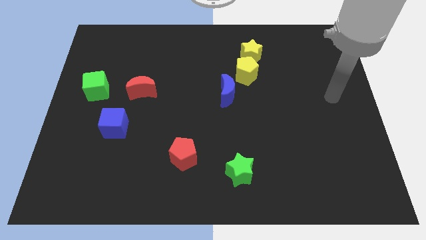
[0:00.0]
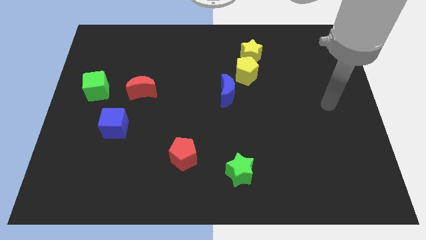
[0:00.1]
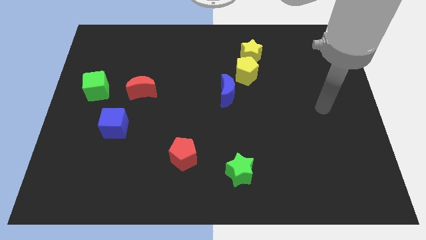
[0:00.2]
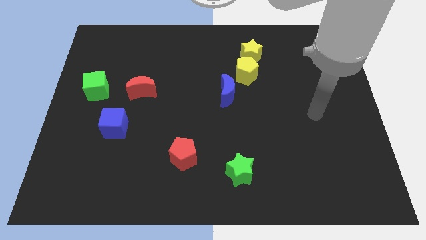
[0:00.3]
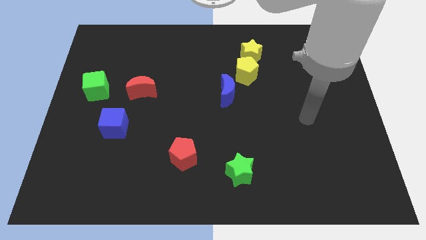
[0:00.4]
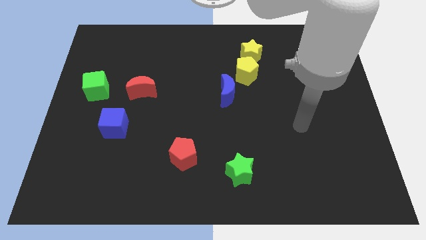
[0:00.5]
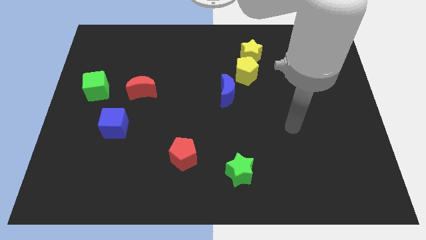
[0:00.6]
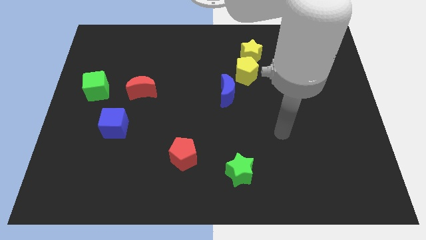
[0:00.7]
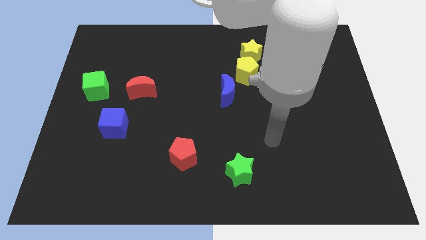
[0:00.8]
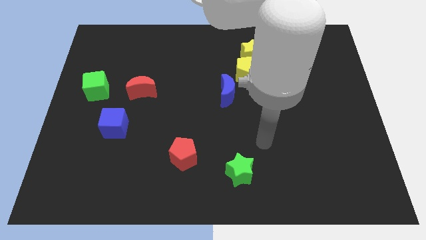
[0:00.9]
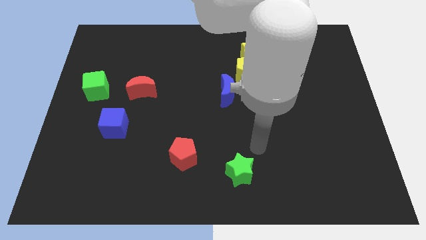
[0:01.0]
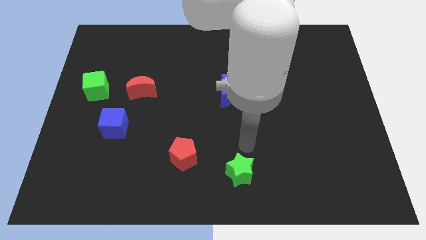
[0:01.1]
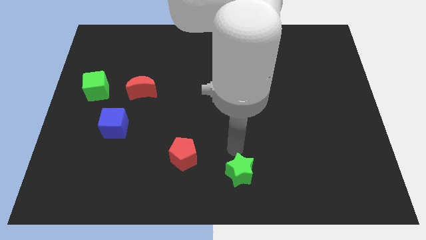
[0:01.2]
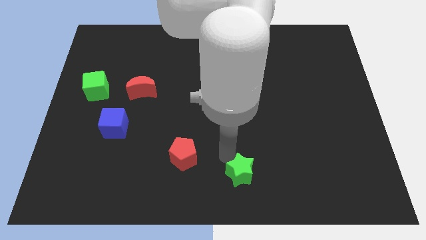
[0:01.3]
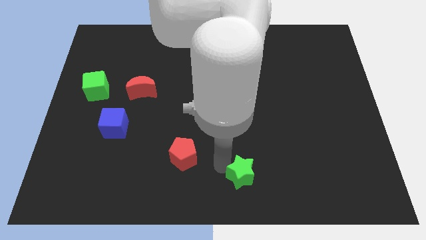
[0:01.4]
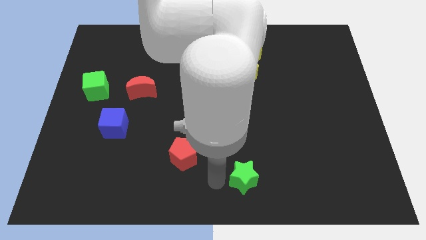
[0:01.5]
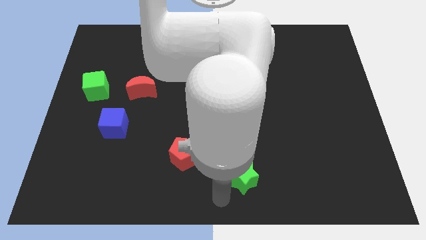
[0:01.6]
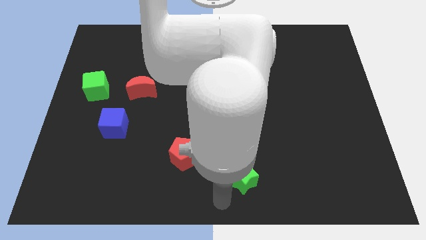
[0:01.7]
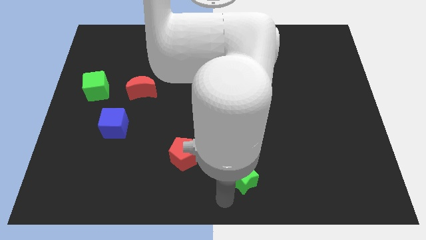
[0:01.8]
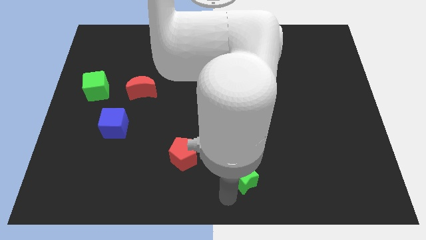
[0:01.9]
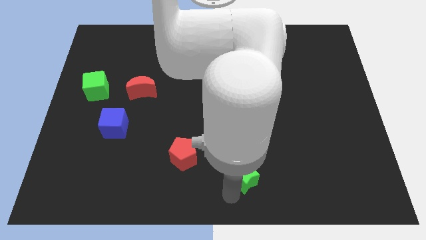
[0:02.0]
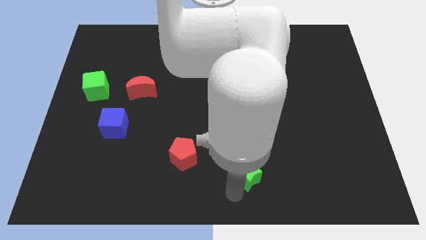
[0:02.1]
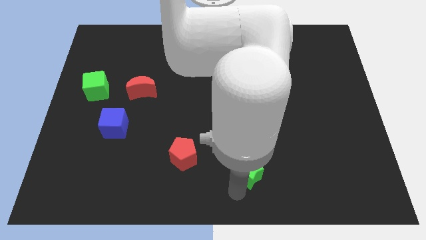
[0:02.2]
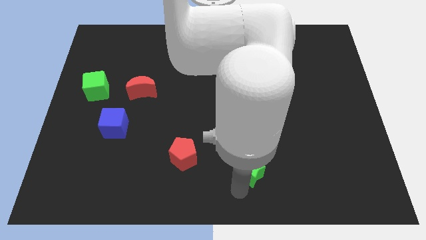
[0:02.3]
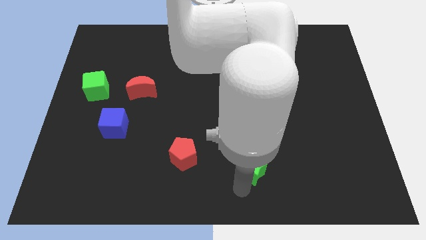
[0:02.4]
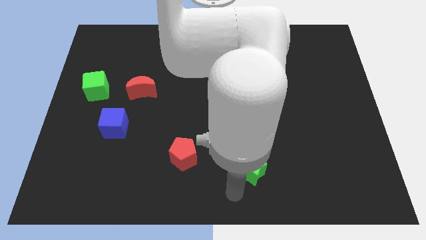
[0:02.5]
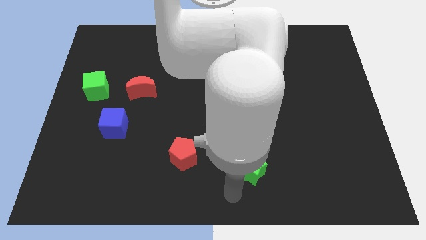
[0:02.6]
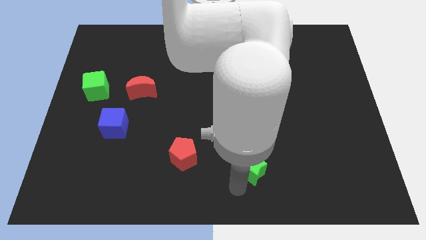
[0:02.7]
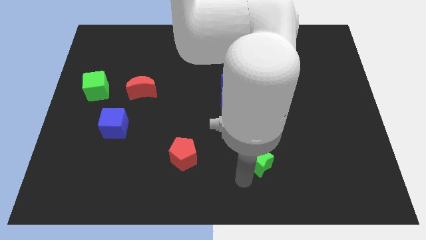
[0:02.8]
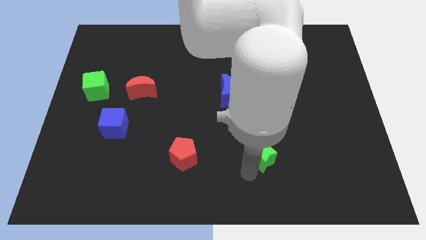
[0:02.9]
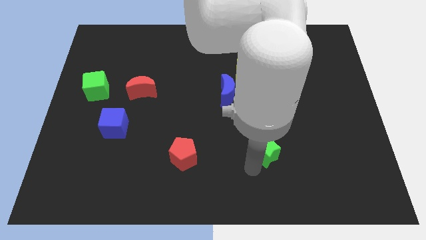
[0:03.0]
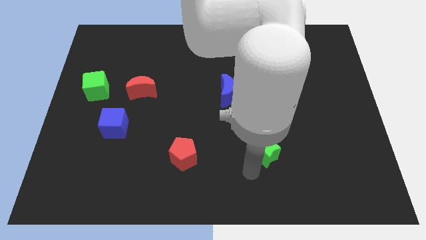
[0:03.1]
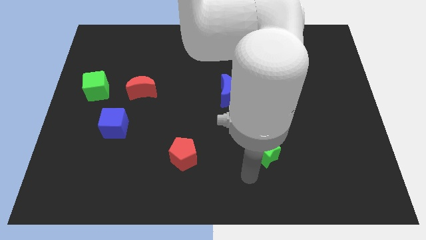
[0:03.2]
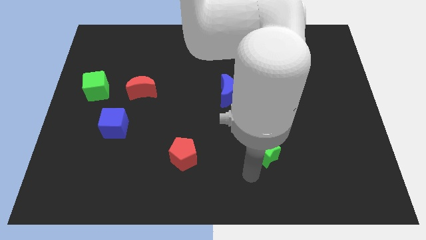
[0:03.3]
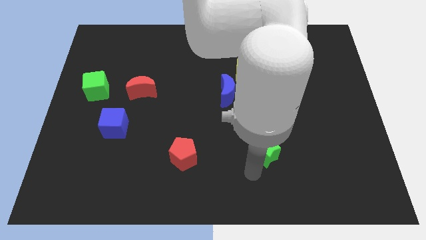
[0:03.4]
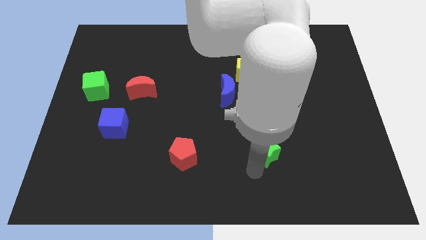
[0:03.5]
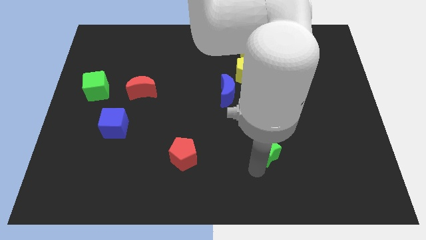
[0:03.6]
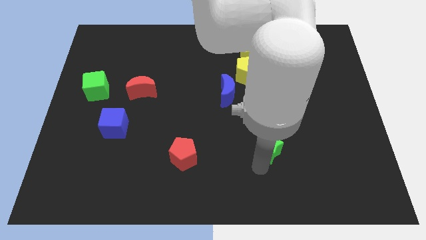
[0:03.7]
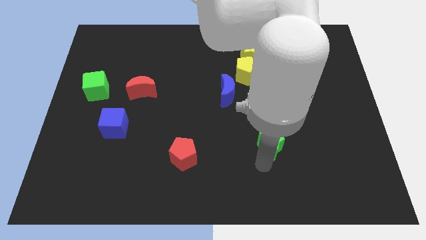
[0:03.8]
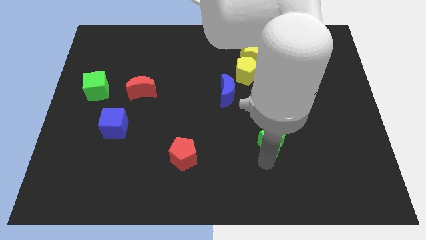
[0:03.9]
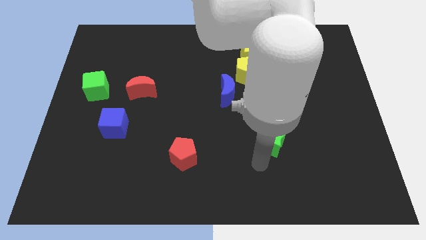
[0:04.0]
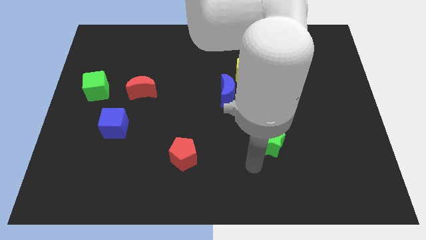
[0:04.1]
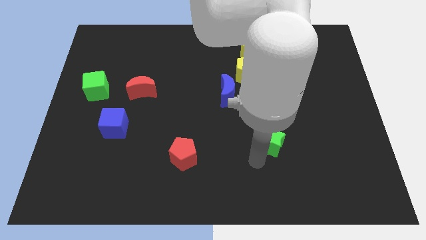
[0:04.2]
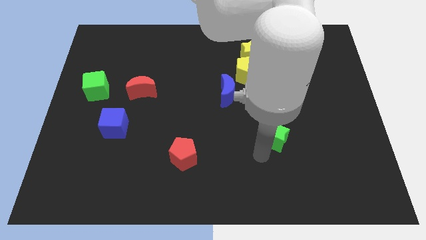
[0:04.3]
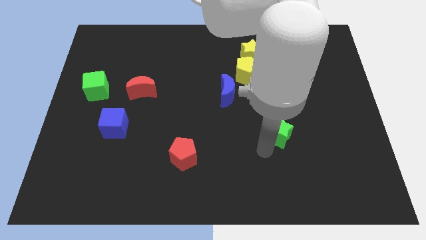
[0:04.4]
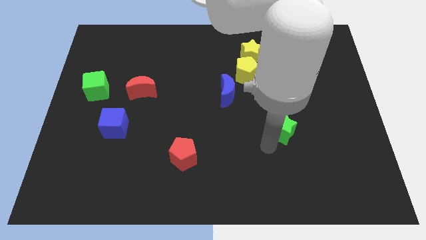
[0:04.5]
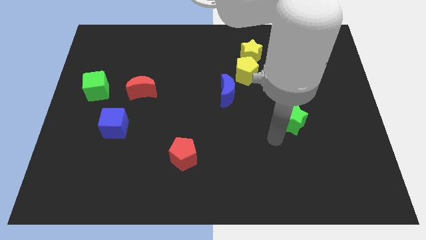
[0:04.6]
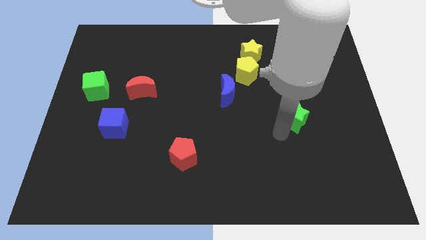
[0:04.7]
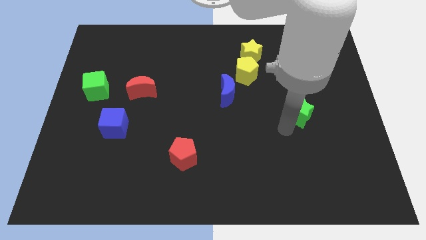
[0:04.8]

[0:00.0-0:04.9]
slide the green star up and to the right diagonally

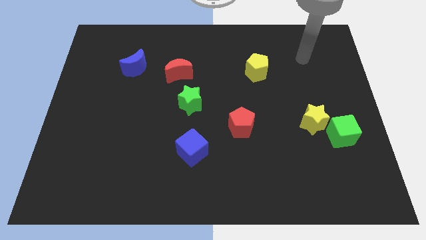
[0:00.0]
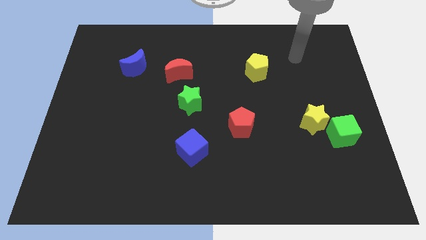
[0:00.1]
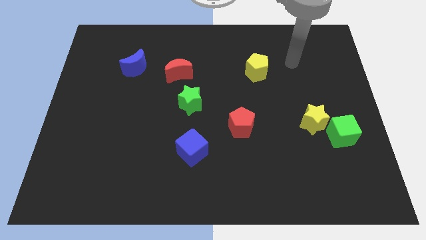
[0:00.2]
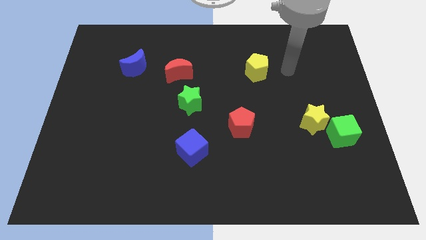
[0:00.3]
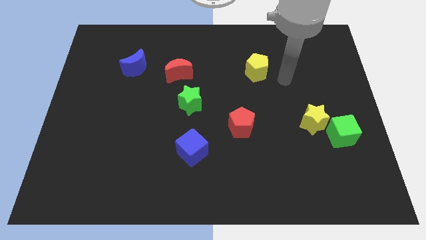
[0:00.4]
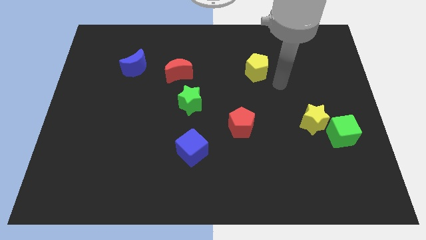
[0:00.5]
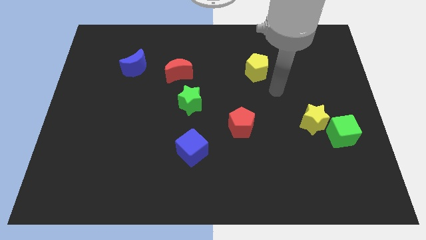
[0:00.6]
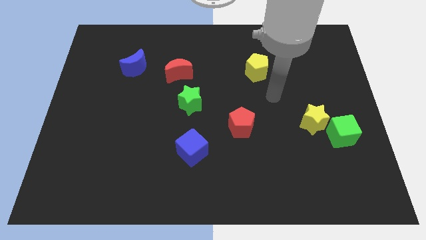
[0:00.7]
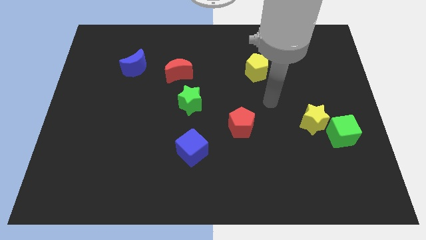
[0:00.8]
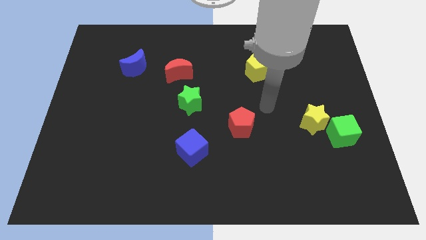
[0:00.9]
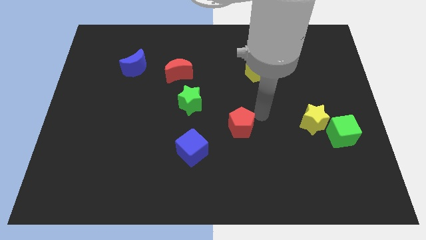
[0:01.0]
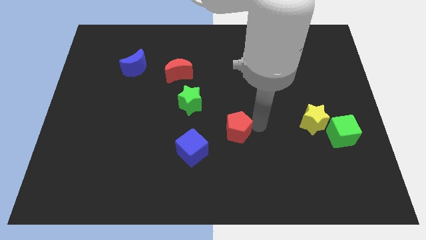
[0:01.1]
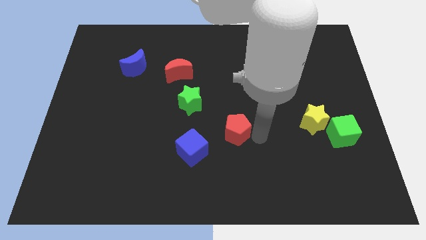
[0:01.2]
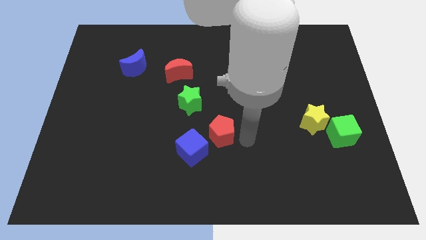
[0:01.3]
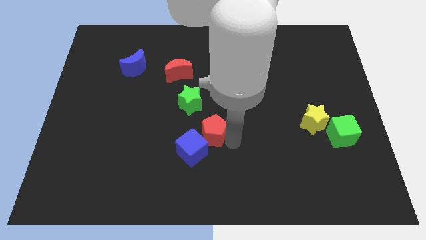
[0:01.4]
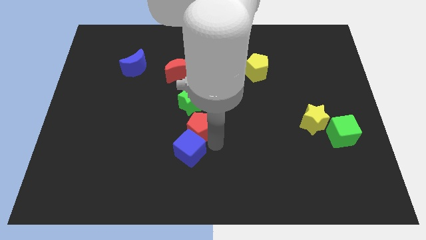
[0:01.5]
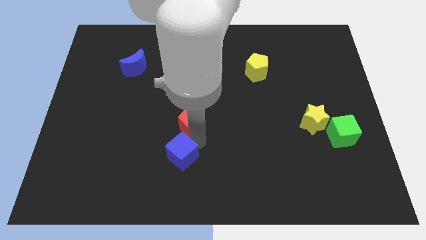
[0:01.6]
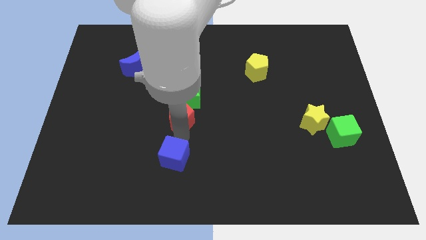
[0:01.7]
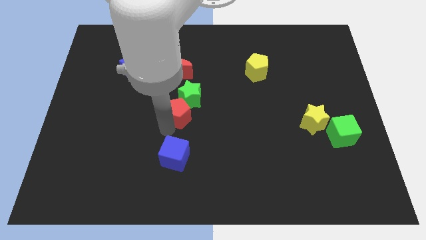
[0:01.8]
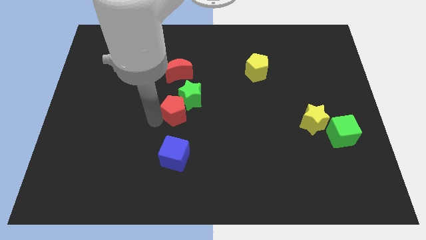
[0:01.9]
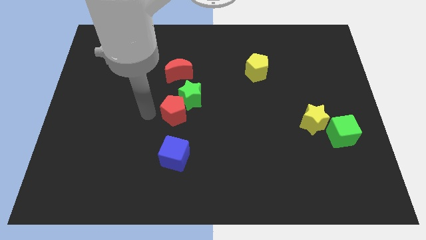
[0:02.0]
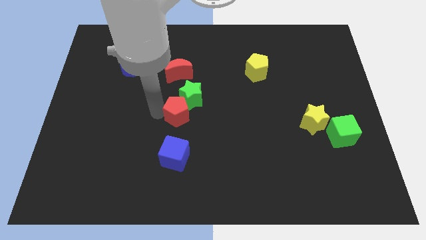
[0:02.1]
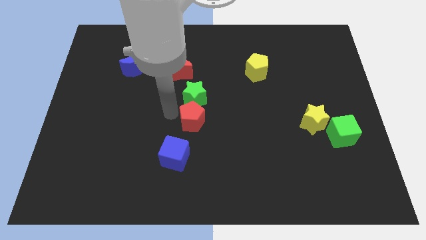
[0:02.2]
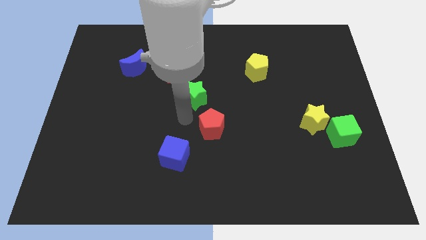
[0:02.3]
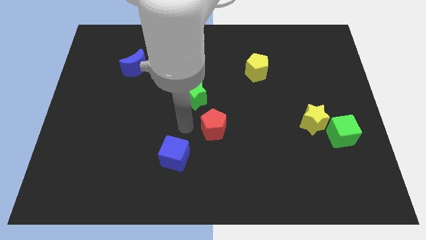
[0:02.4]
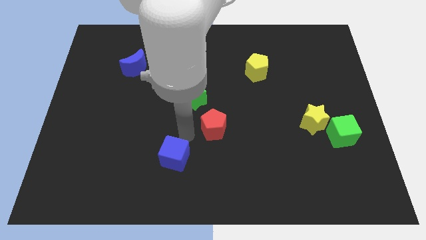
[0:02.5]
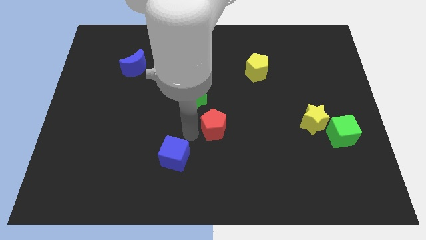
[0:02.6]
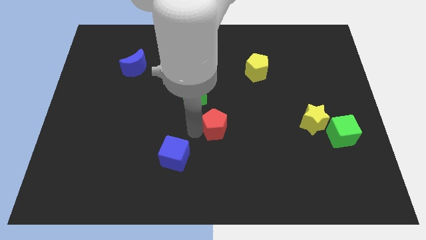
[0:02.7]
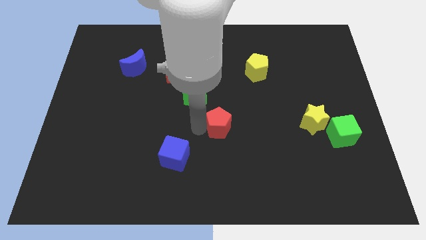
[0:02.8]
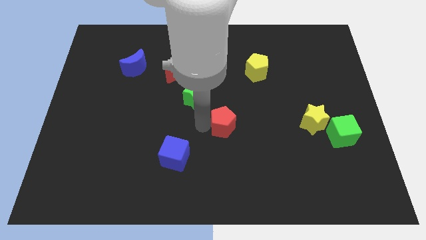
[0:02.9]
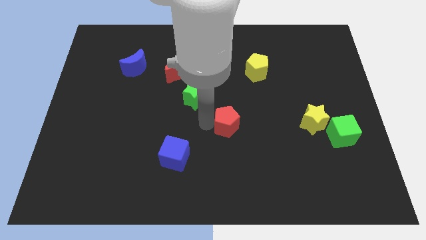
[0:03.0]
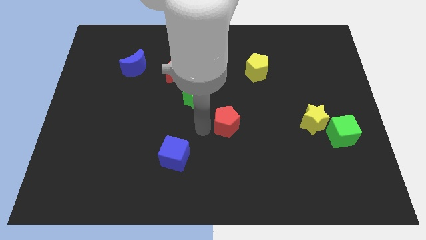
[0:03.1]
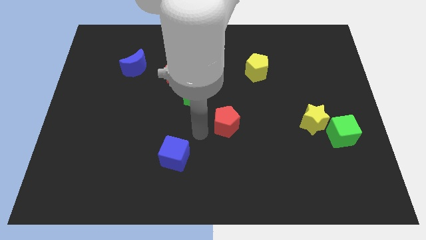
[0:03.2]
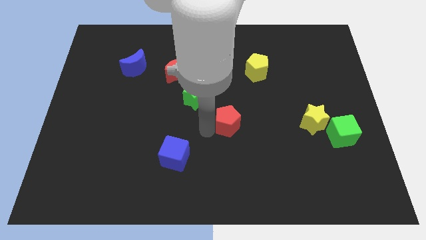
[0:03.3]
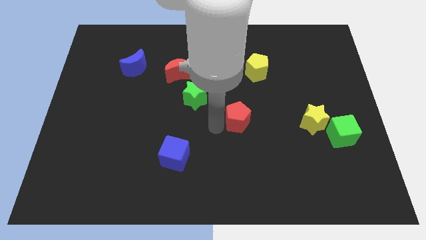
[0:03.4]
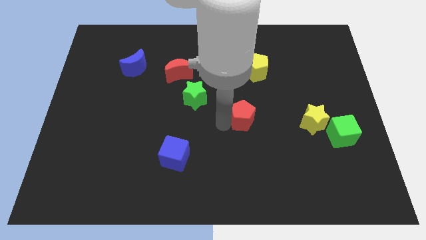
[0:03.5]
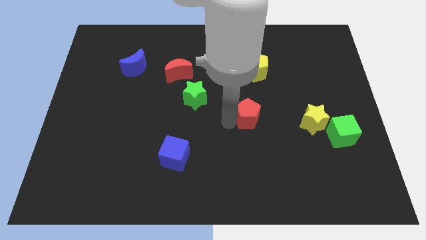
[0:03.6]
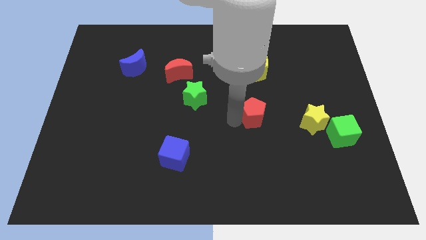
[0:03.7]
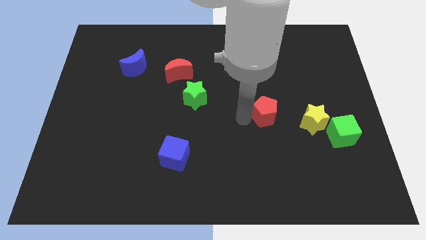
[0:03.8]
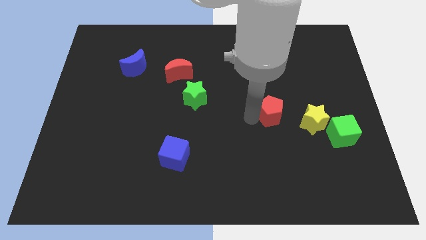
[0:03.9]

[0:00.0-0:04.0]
move the red pentagon a little bit upwards and to the right diagonally
